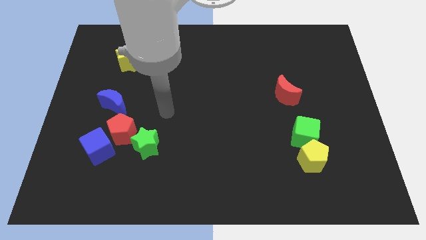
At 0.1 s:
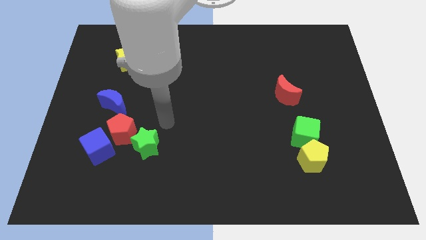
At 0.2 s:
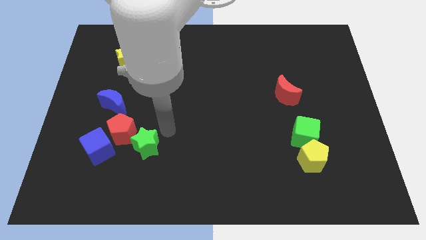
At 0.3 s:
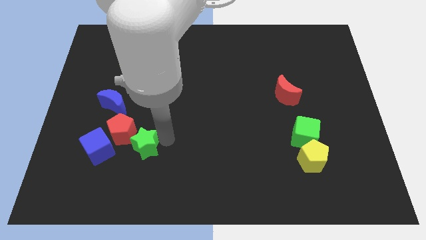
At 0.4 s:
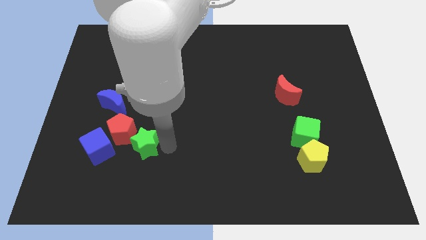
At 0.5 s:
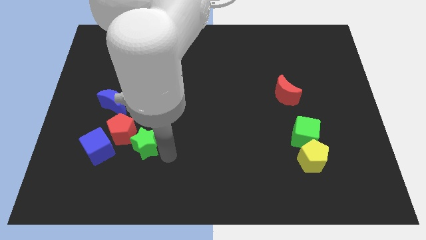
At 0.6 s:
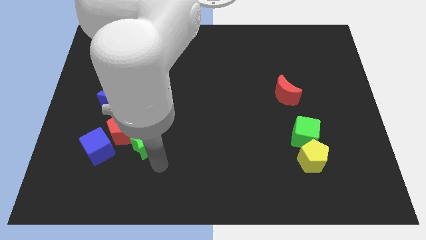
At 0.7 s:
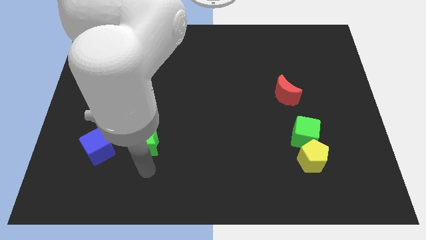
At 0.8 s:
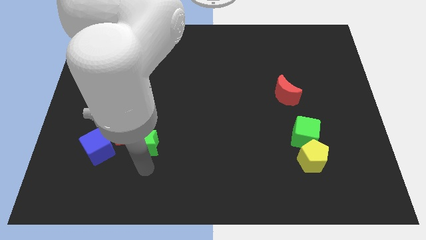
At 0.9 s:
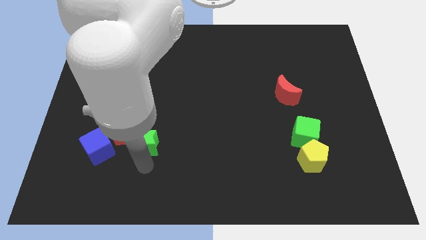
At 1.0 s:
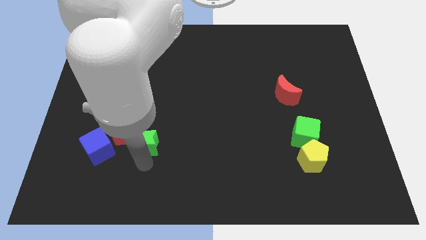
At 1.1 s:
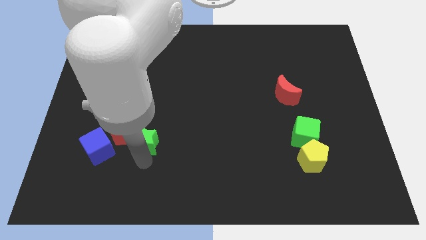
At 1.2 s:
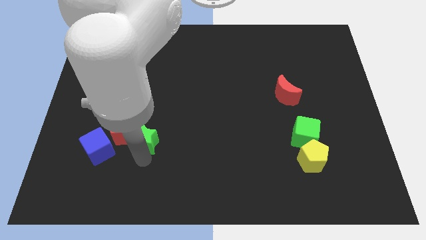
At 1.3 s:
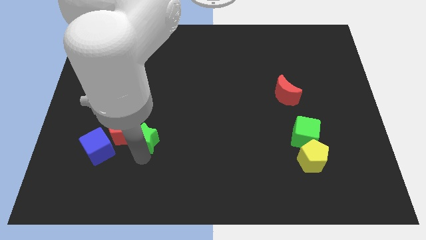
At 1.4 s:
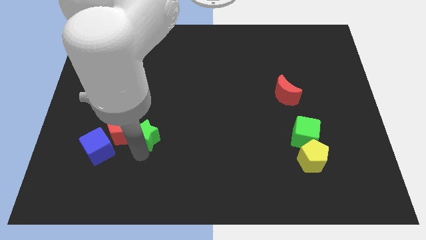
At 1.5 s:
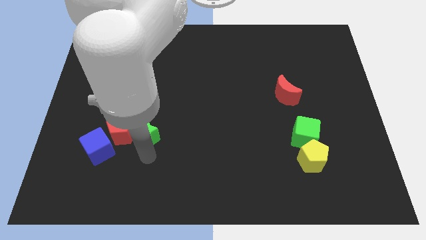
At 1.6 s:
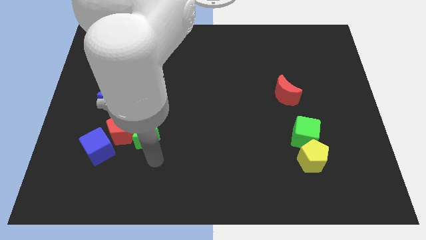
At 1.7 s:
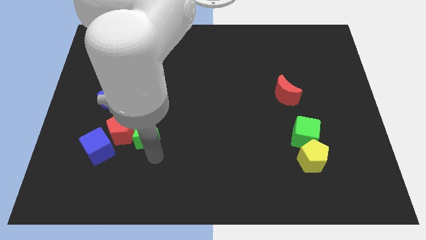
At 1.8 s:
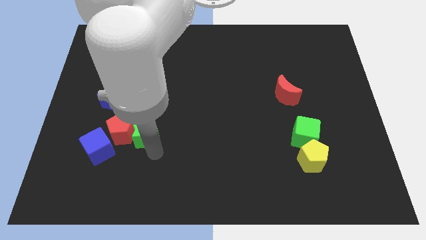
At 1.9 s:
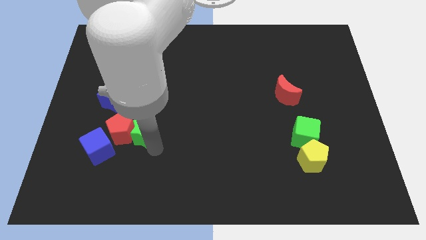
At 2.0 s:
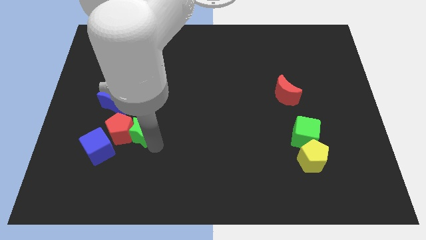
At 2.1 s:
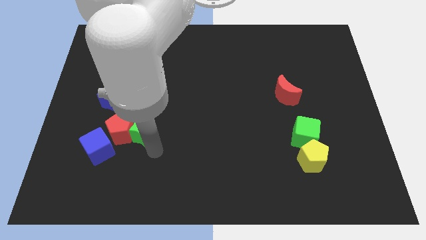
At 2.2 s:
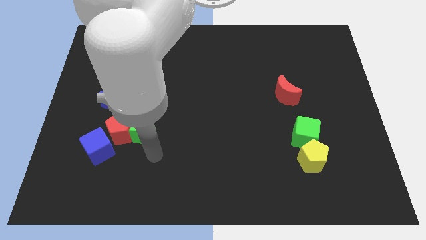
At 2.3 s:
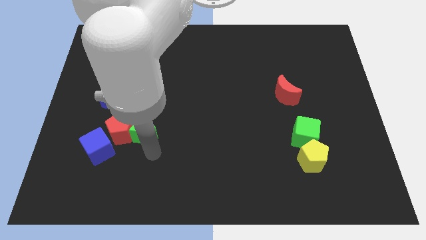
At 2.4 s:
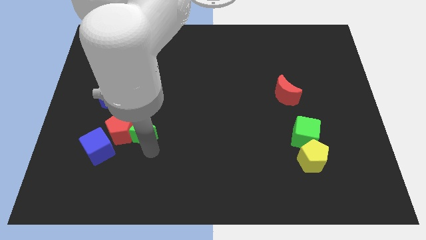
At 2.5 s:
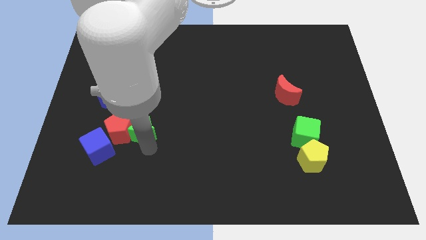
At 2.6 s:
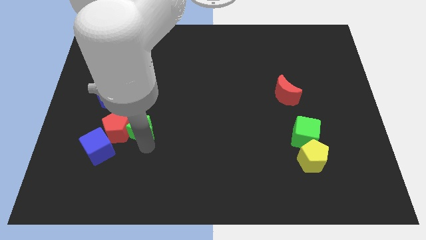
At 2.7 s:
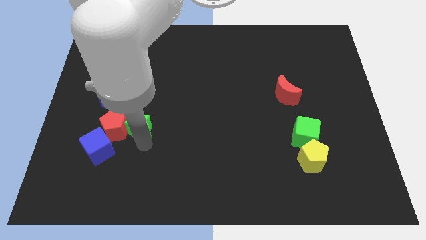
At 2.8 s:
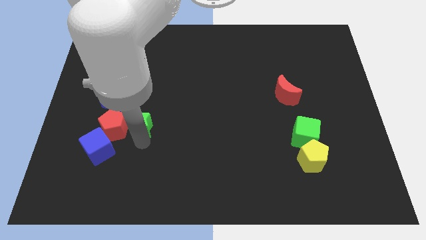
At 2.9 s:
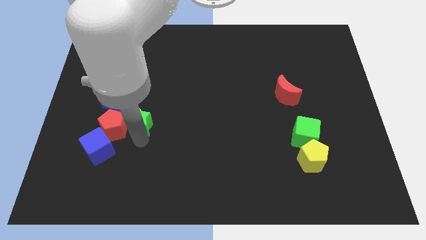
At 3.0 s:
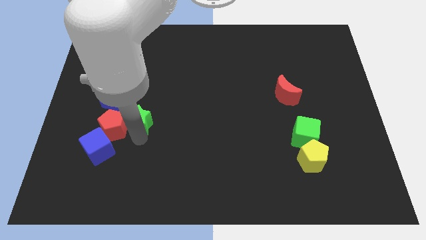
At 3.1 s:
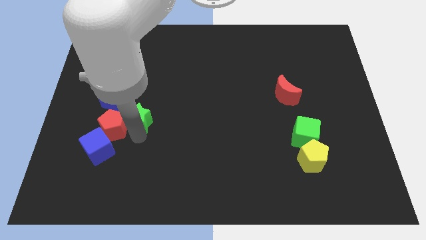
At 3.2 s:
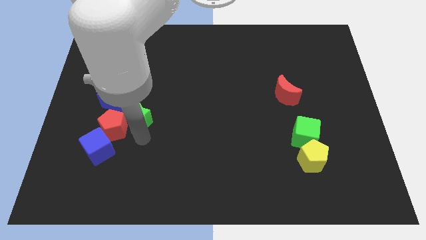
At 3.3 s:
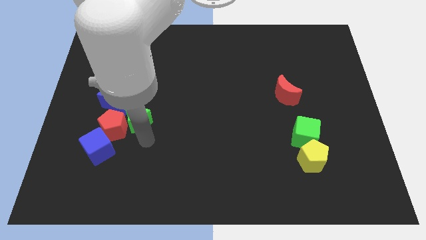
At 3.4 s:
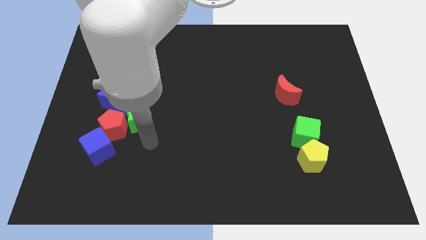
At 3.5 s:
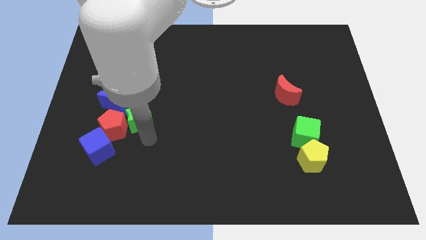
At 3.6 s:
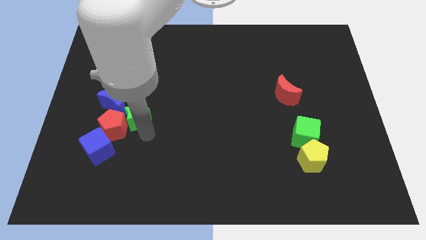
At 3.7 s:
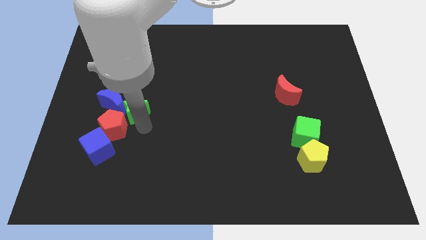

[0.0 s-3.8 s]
slide the green star a little upwards and left

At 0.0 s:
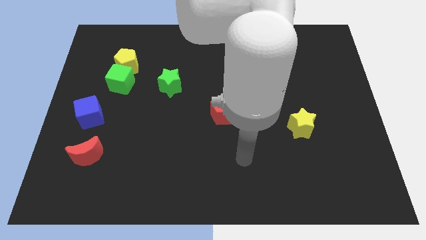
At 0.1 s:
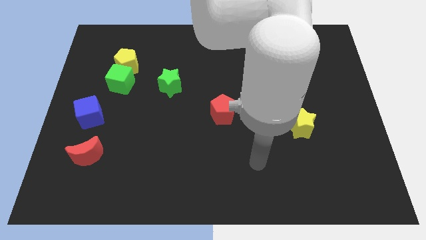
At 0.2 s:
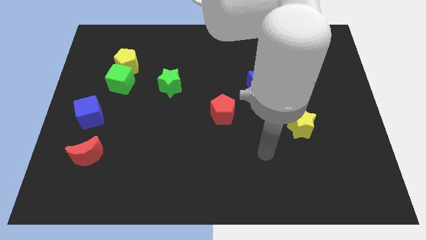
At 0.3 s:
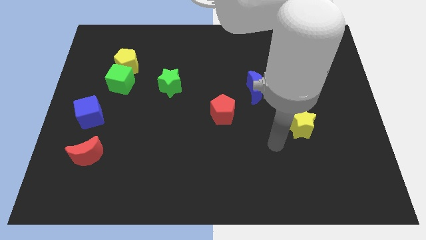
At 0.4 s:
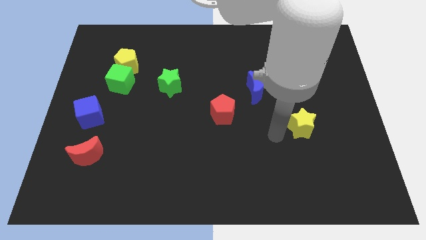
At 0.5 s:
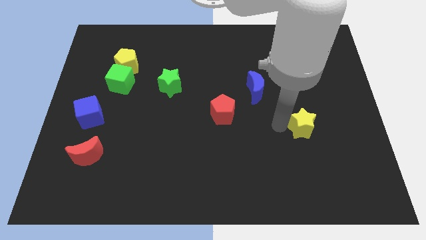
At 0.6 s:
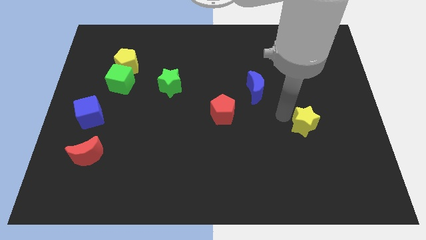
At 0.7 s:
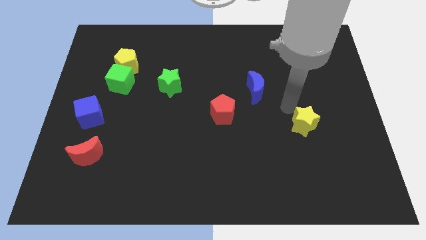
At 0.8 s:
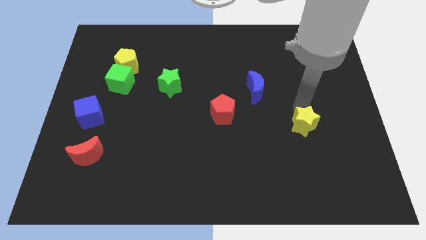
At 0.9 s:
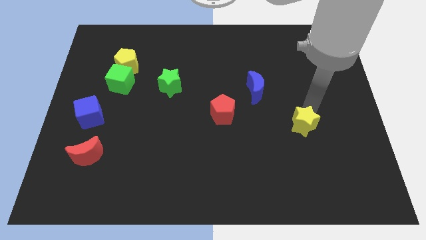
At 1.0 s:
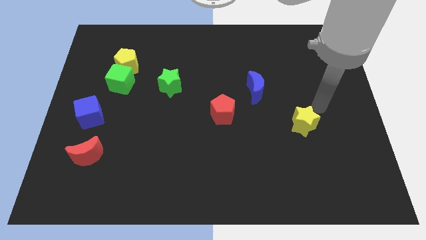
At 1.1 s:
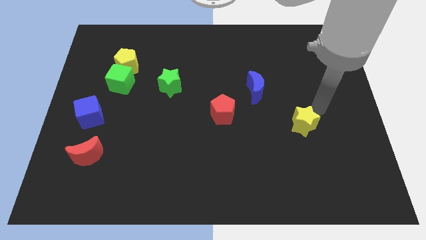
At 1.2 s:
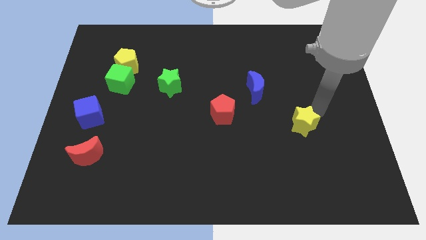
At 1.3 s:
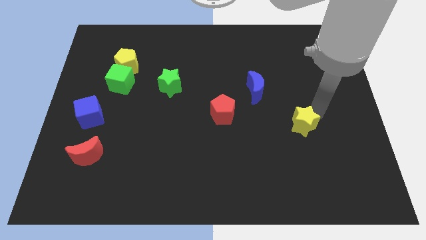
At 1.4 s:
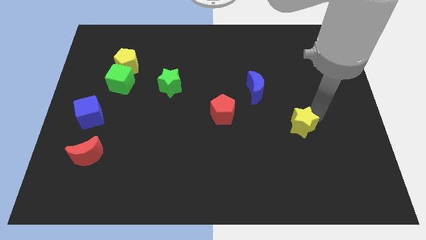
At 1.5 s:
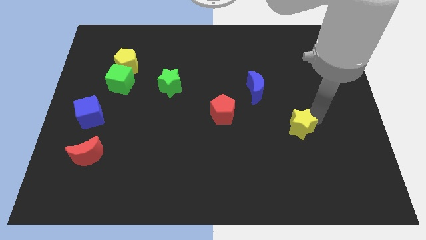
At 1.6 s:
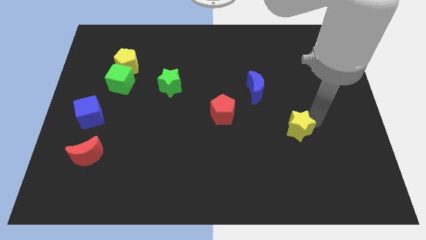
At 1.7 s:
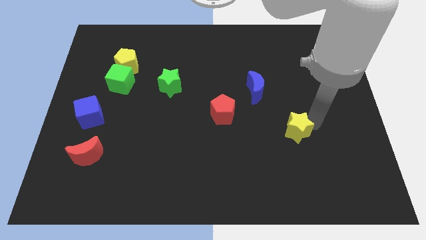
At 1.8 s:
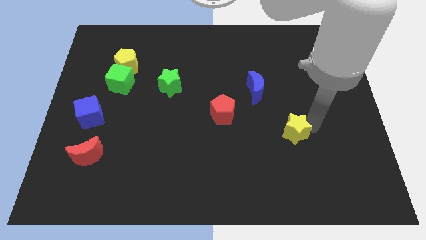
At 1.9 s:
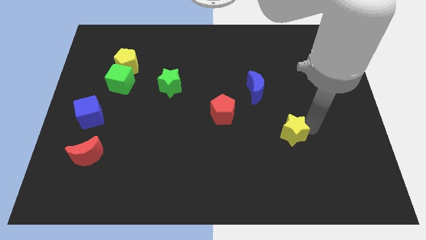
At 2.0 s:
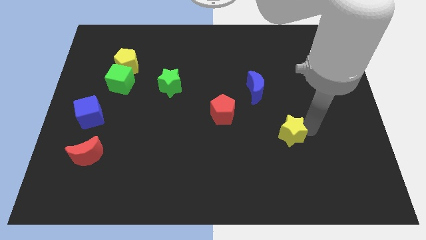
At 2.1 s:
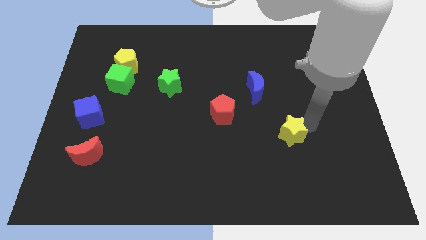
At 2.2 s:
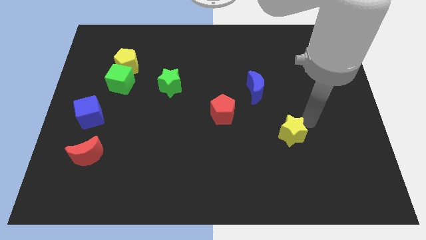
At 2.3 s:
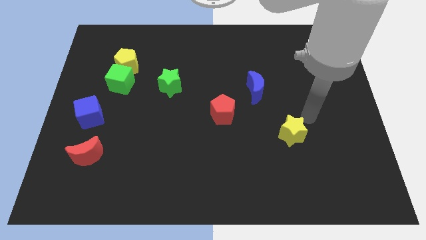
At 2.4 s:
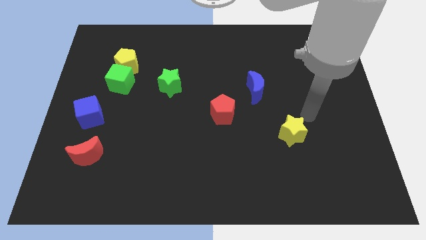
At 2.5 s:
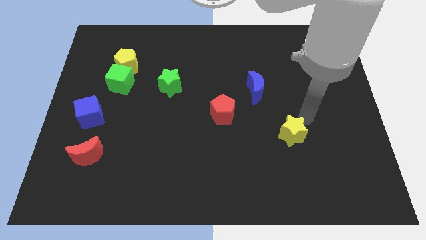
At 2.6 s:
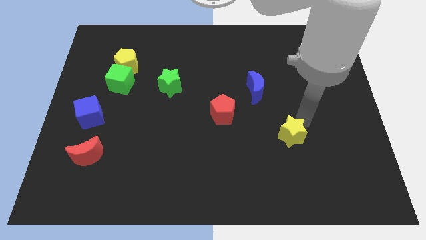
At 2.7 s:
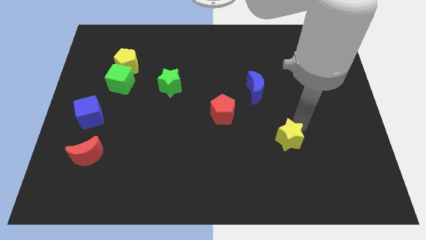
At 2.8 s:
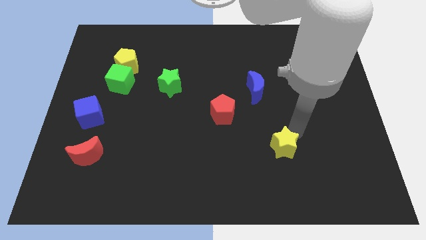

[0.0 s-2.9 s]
slide the yellow star diagonally downwards and left a little bit

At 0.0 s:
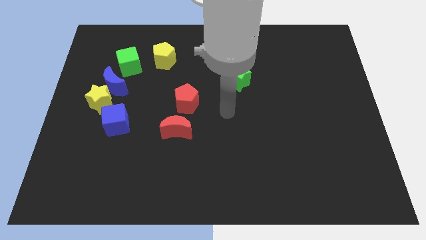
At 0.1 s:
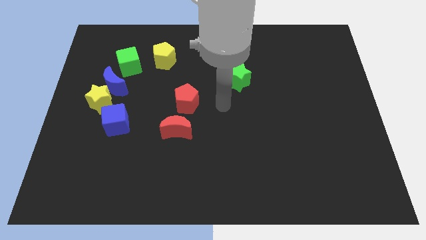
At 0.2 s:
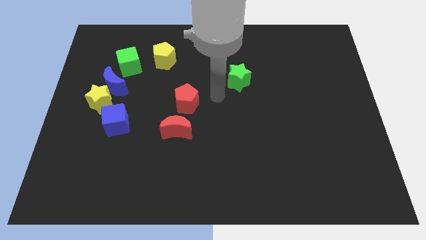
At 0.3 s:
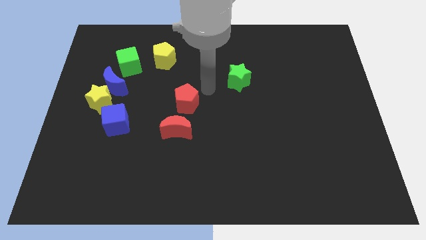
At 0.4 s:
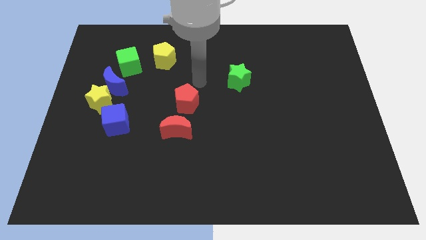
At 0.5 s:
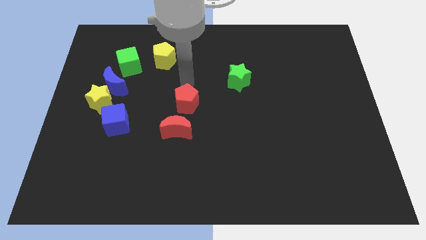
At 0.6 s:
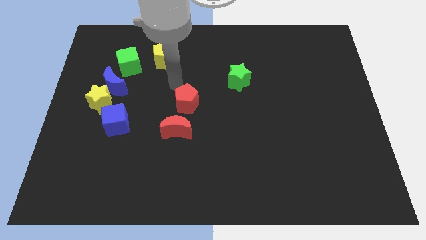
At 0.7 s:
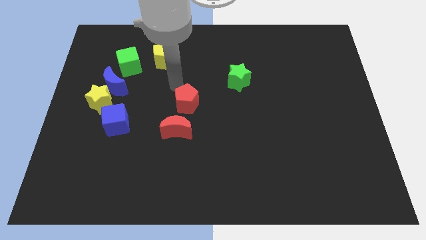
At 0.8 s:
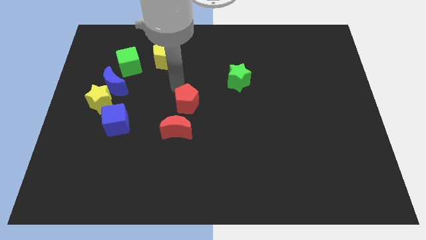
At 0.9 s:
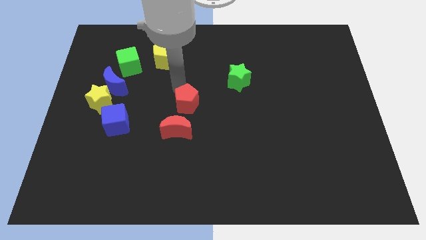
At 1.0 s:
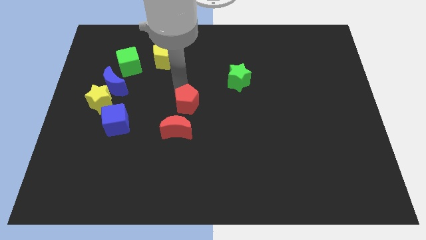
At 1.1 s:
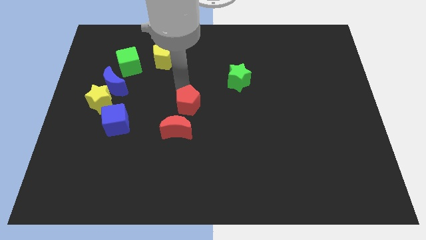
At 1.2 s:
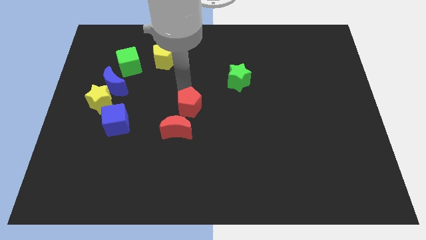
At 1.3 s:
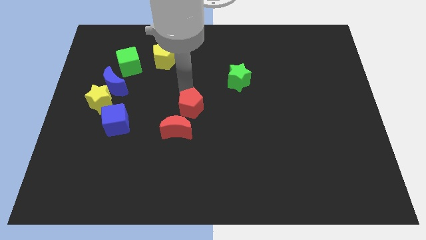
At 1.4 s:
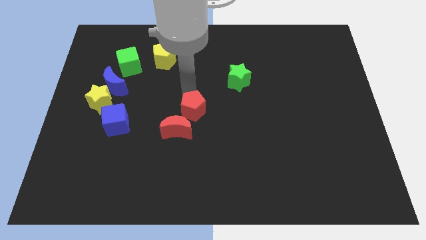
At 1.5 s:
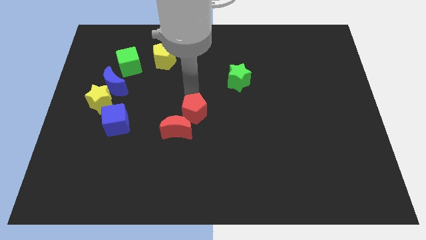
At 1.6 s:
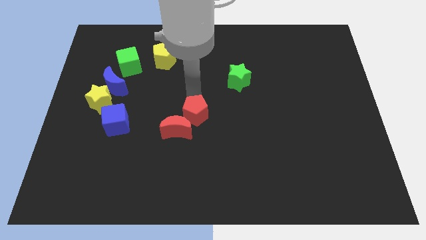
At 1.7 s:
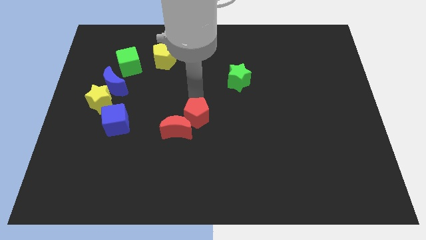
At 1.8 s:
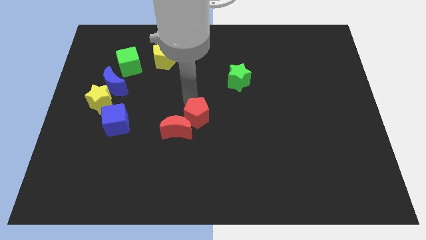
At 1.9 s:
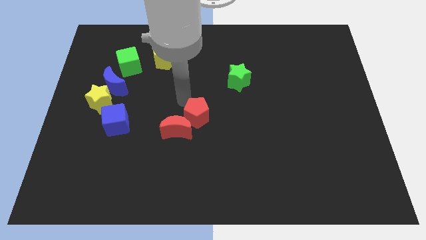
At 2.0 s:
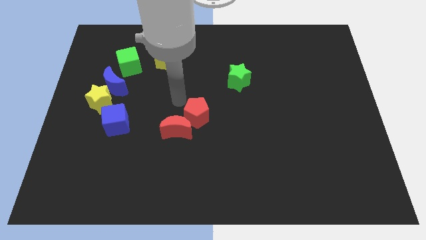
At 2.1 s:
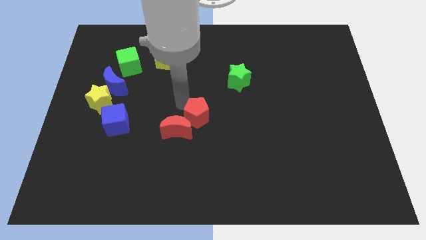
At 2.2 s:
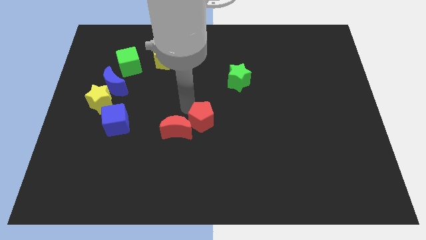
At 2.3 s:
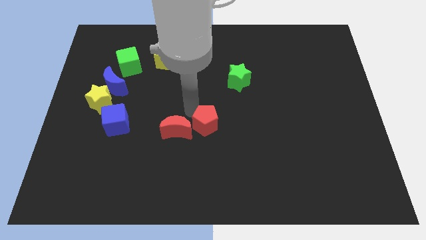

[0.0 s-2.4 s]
slightly slide the red pentagon down and to the right diagonally
